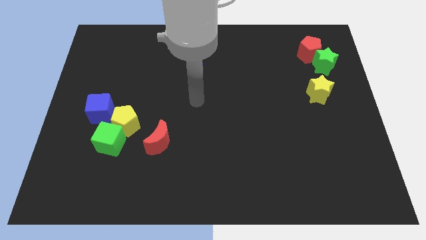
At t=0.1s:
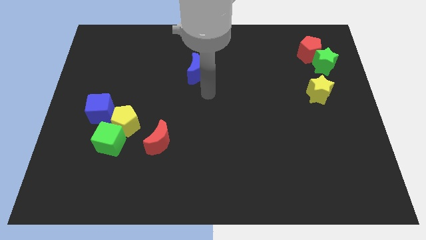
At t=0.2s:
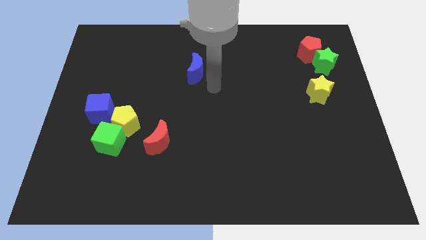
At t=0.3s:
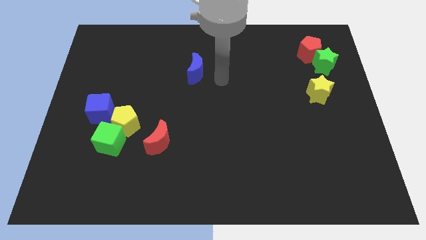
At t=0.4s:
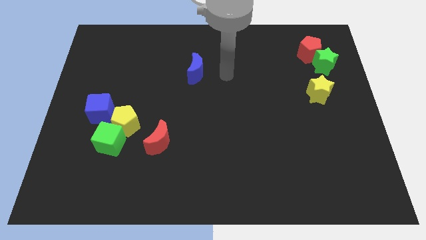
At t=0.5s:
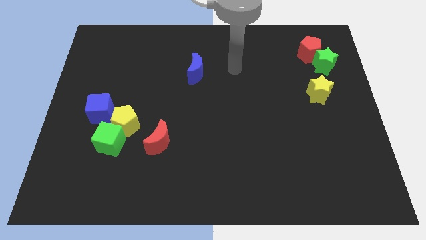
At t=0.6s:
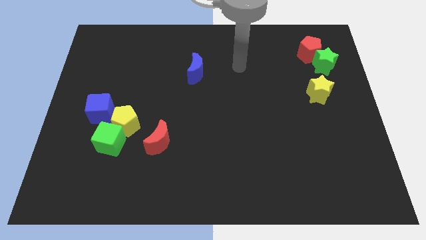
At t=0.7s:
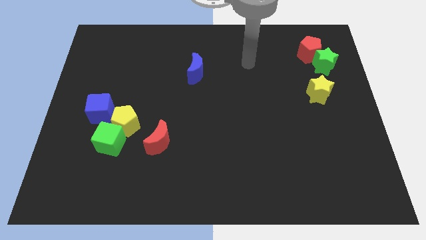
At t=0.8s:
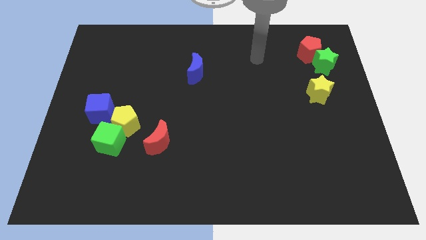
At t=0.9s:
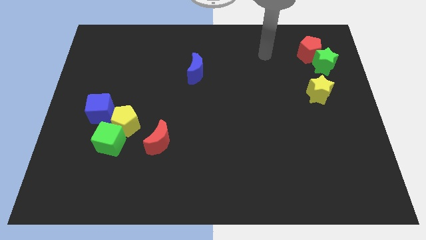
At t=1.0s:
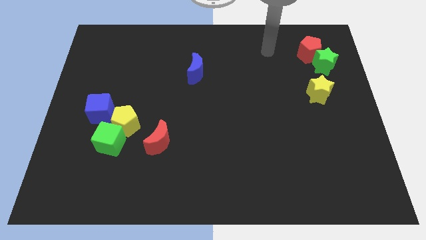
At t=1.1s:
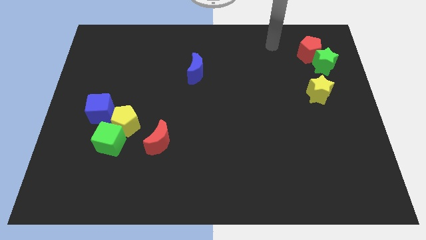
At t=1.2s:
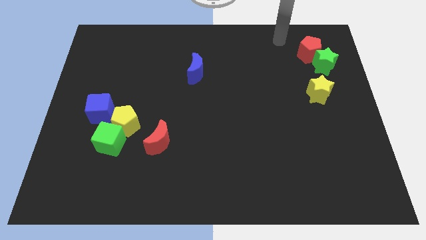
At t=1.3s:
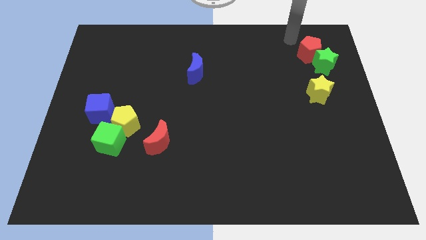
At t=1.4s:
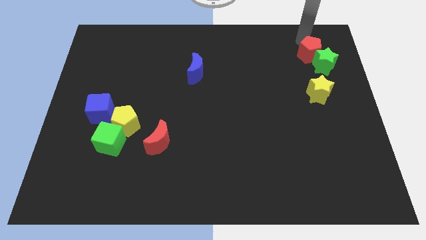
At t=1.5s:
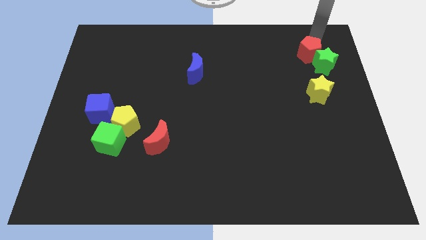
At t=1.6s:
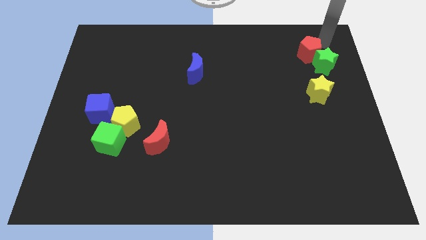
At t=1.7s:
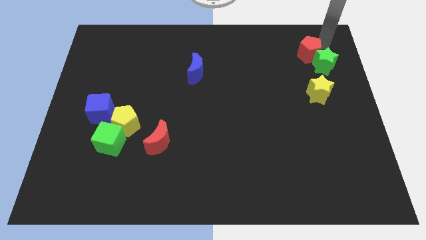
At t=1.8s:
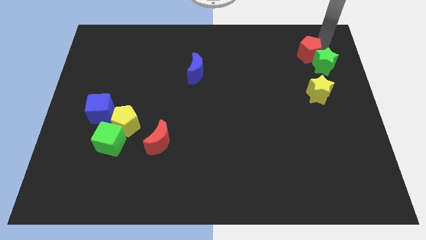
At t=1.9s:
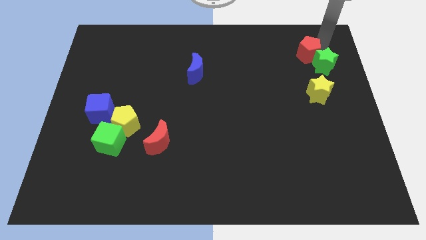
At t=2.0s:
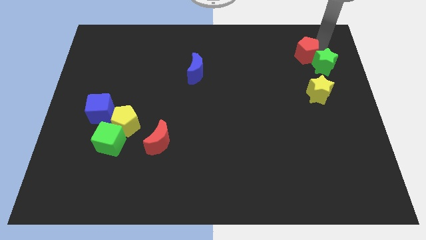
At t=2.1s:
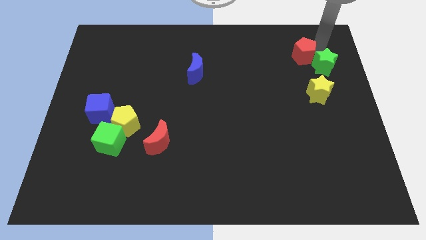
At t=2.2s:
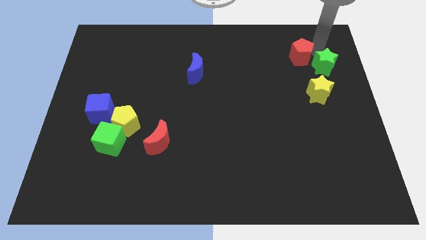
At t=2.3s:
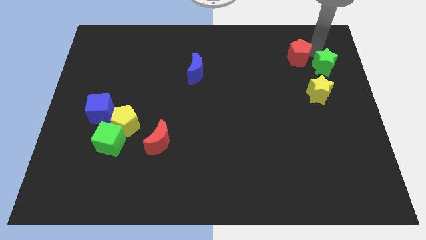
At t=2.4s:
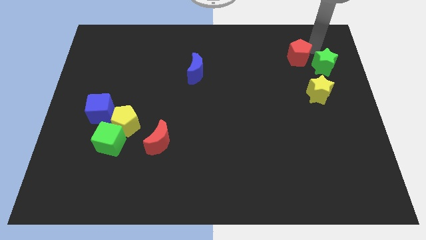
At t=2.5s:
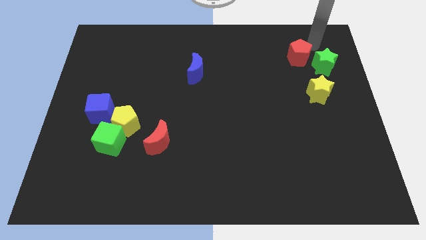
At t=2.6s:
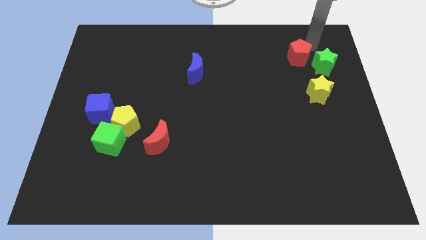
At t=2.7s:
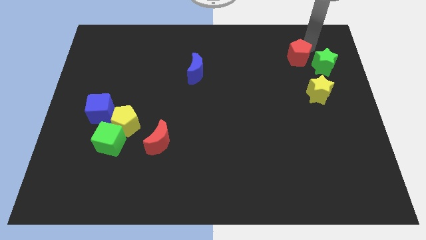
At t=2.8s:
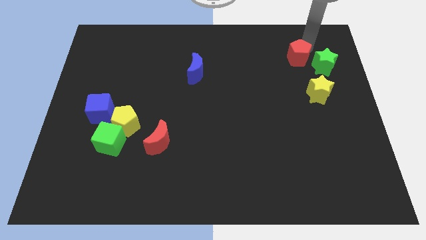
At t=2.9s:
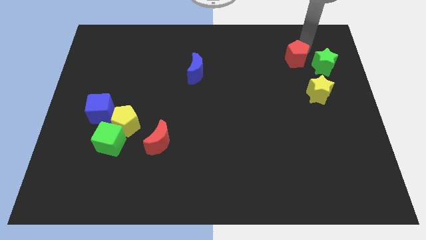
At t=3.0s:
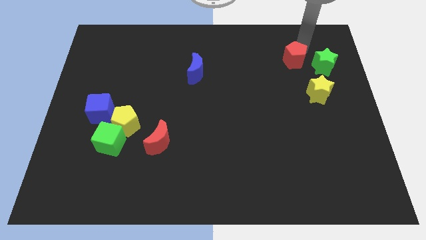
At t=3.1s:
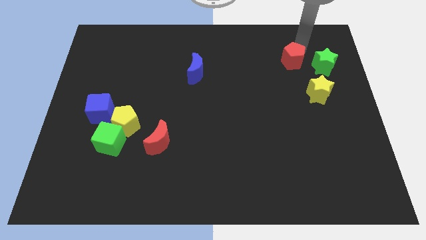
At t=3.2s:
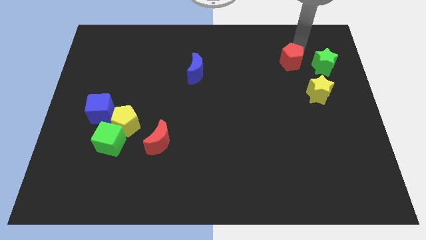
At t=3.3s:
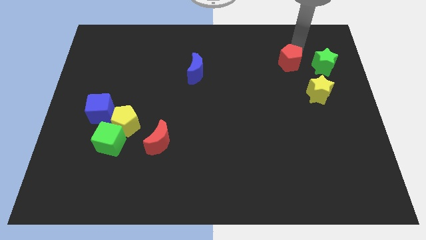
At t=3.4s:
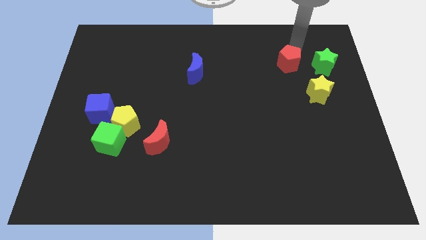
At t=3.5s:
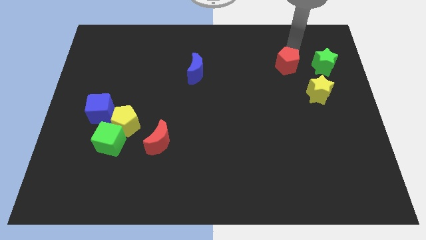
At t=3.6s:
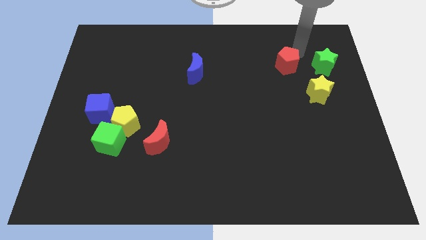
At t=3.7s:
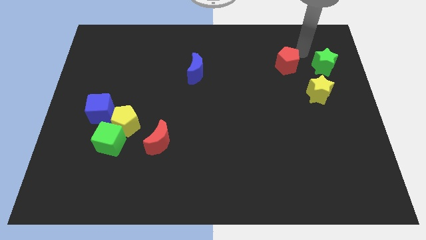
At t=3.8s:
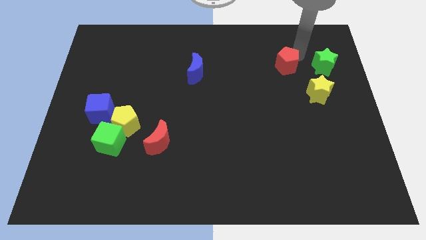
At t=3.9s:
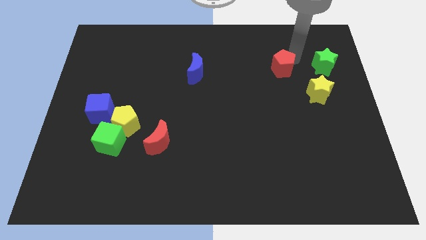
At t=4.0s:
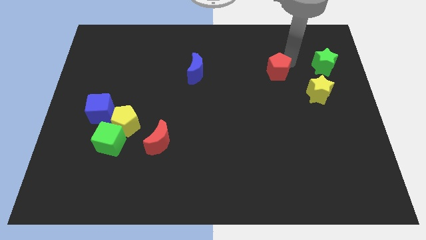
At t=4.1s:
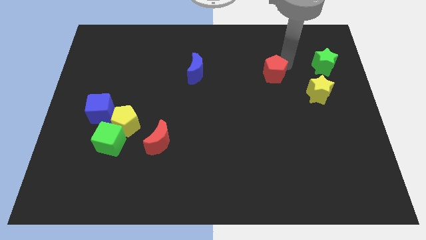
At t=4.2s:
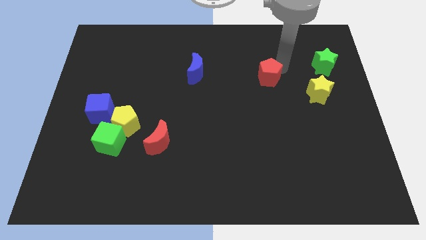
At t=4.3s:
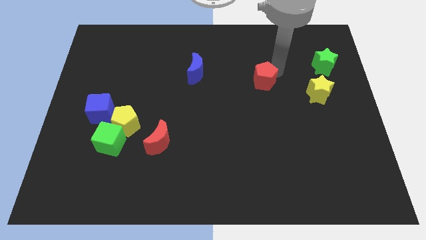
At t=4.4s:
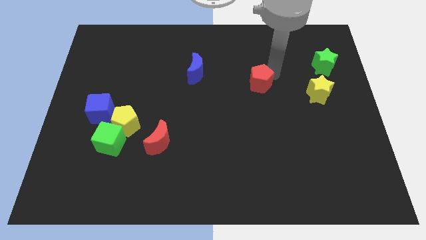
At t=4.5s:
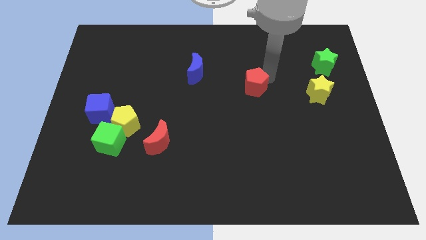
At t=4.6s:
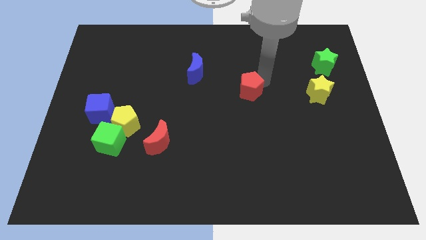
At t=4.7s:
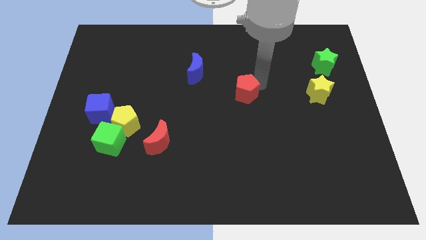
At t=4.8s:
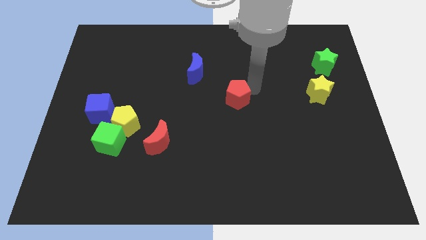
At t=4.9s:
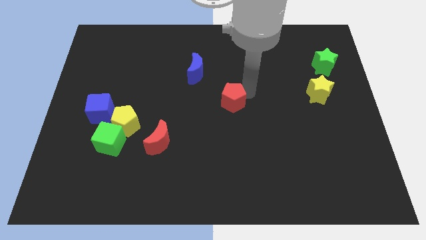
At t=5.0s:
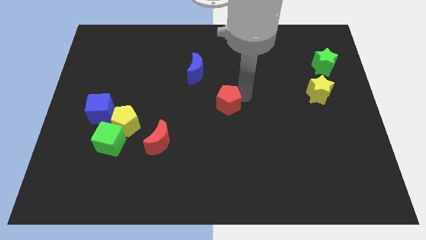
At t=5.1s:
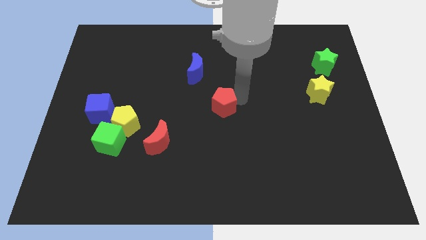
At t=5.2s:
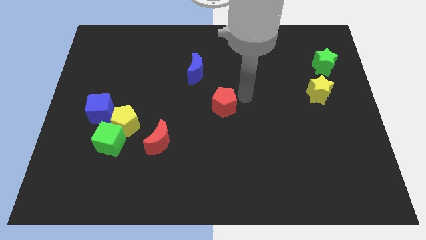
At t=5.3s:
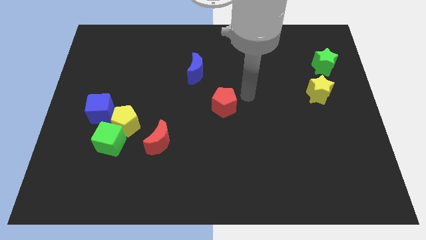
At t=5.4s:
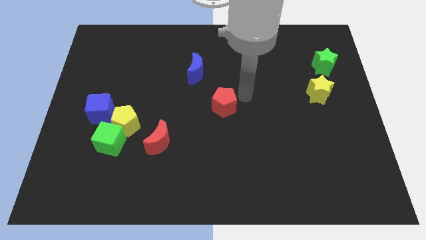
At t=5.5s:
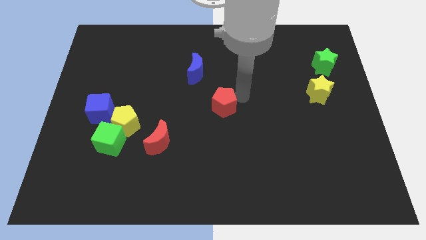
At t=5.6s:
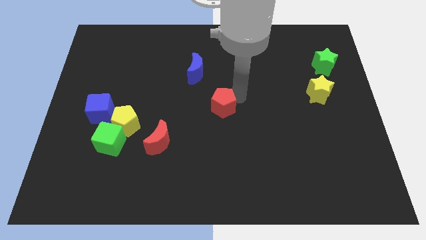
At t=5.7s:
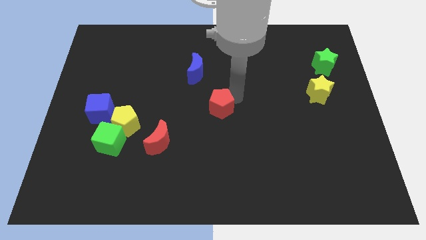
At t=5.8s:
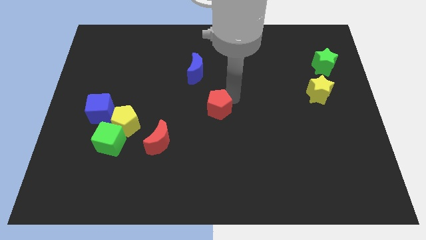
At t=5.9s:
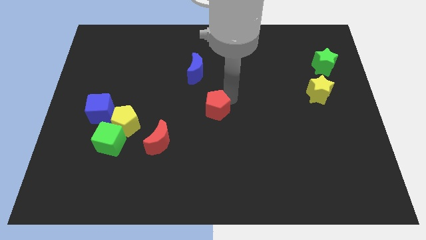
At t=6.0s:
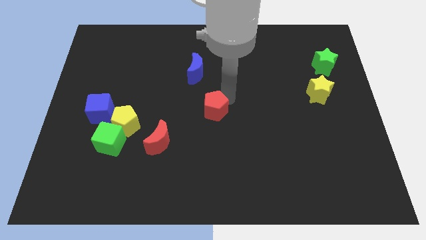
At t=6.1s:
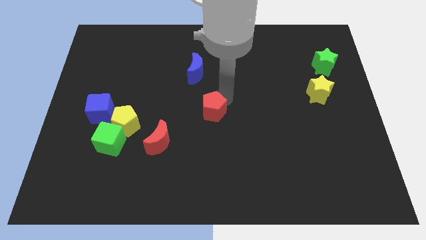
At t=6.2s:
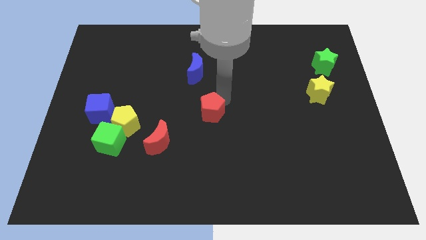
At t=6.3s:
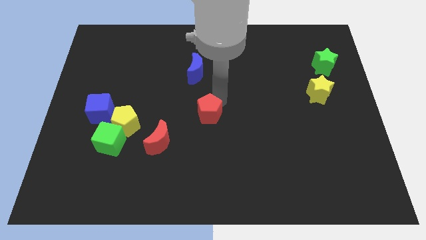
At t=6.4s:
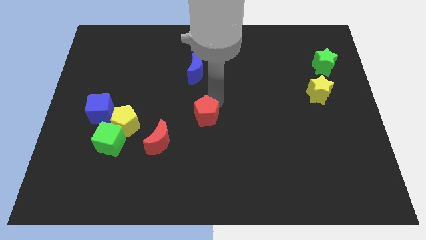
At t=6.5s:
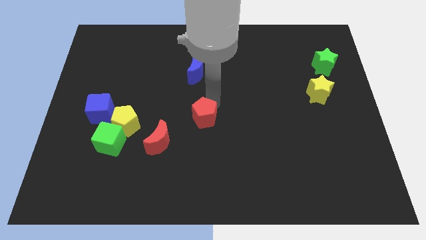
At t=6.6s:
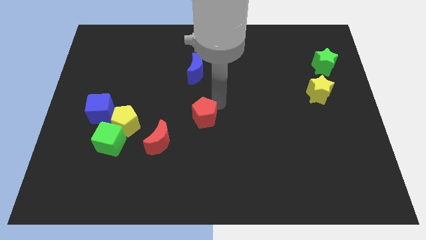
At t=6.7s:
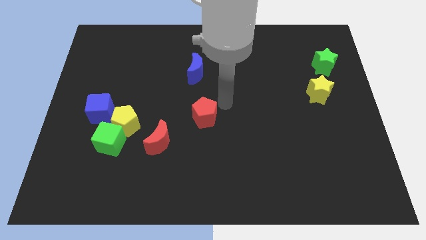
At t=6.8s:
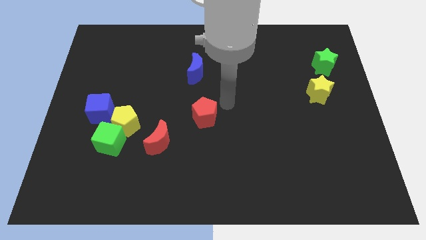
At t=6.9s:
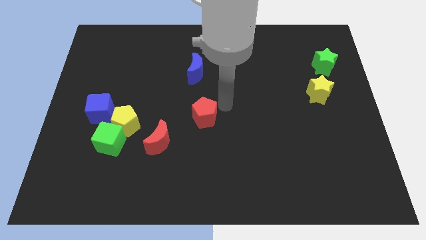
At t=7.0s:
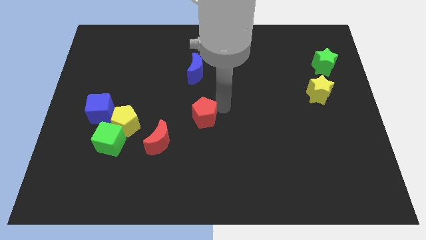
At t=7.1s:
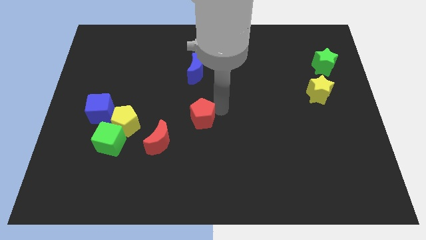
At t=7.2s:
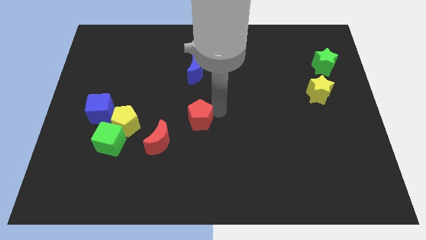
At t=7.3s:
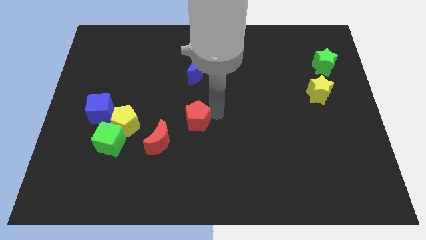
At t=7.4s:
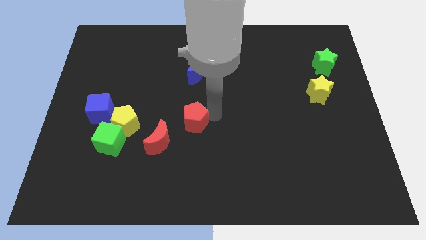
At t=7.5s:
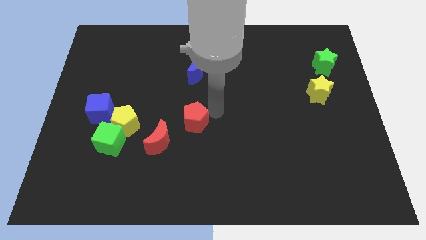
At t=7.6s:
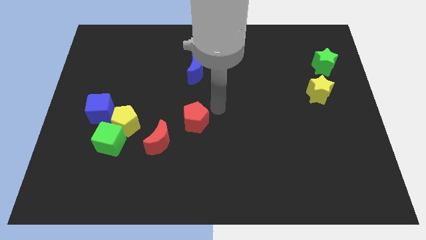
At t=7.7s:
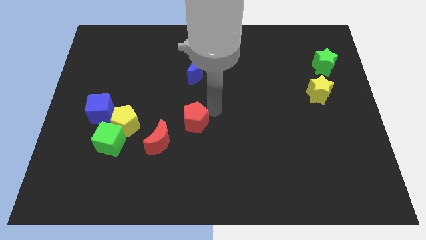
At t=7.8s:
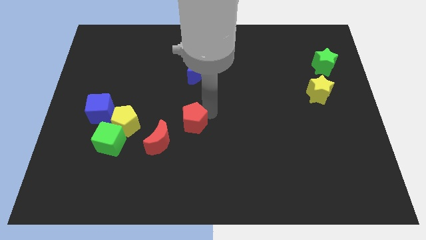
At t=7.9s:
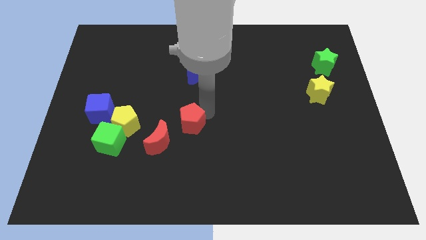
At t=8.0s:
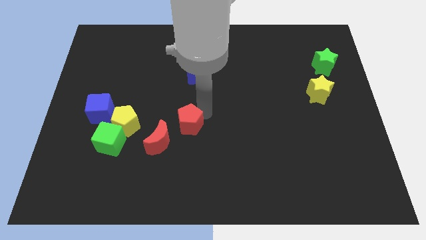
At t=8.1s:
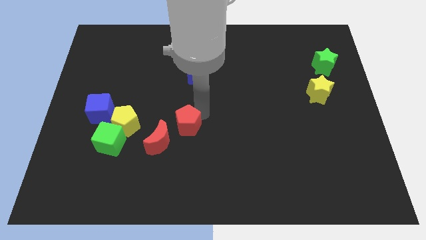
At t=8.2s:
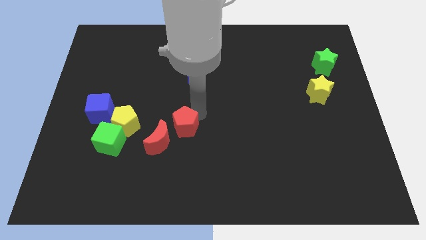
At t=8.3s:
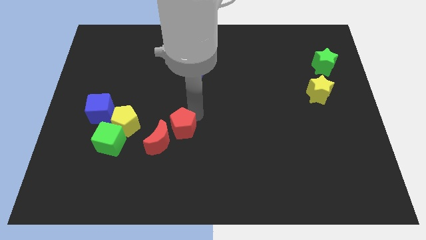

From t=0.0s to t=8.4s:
push the red pentagon close to the red moon
